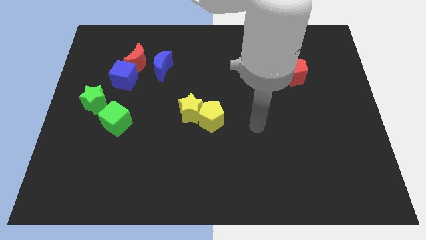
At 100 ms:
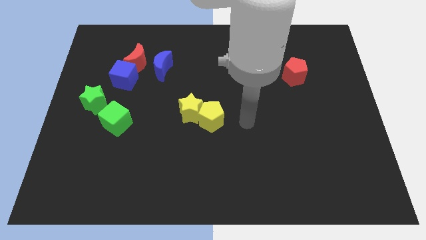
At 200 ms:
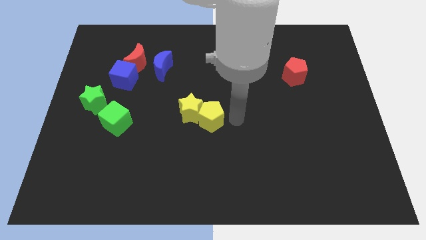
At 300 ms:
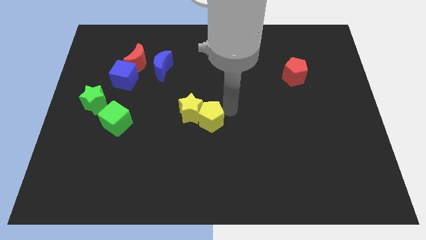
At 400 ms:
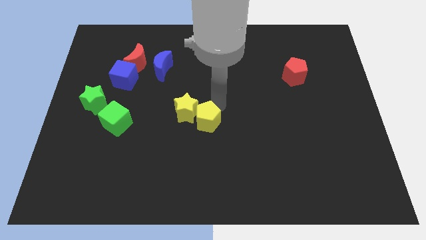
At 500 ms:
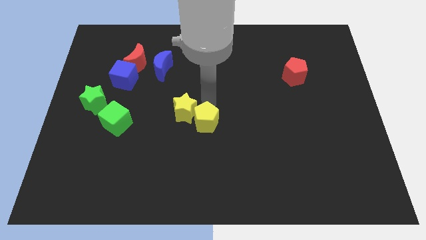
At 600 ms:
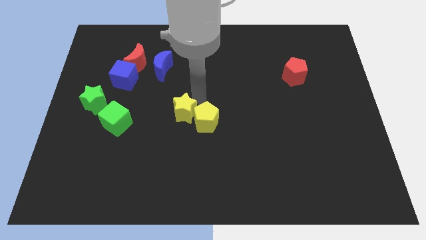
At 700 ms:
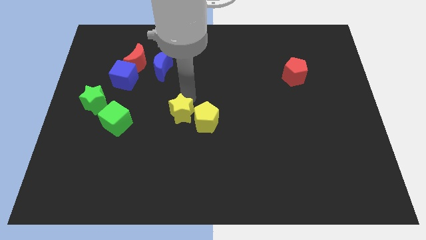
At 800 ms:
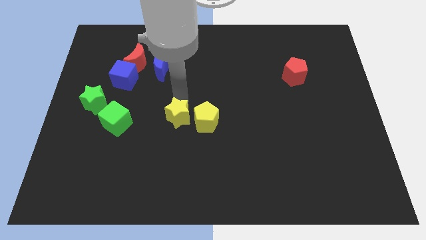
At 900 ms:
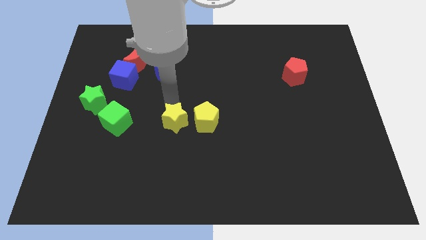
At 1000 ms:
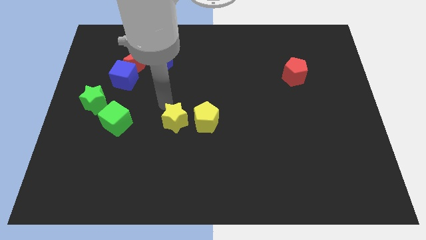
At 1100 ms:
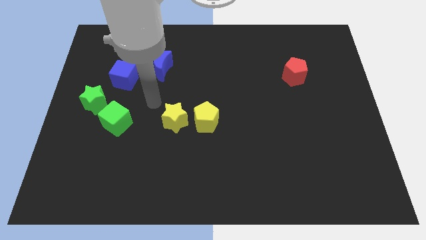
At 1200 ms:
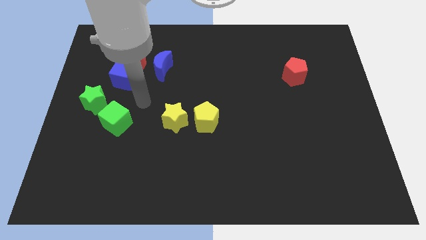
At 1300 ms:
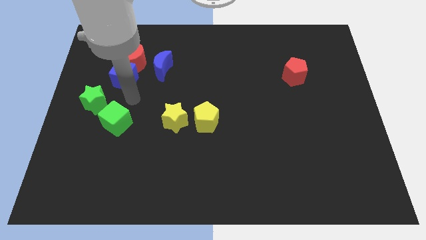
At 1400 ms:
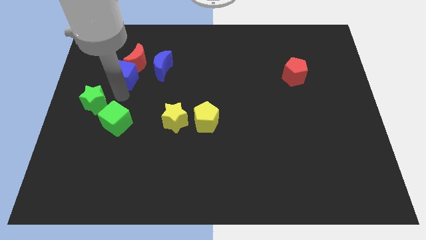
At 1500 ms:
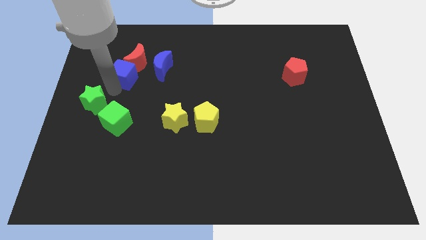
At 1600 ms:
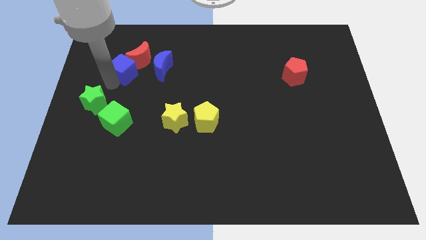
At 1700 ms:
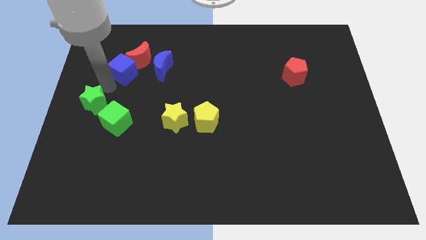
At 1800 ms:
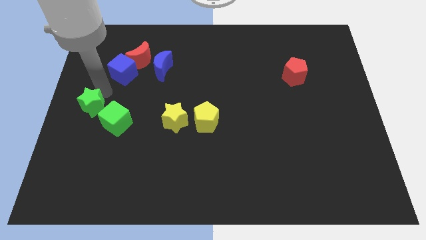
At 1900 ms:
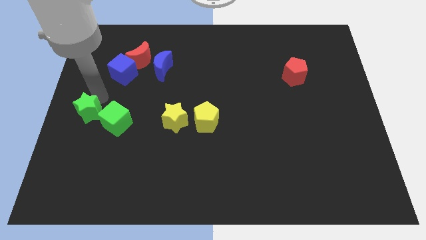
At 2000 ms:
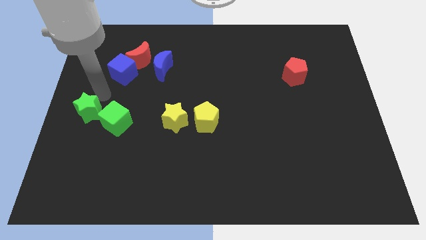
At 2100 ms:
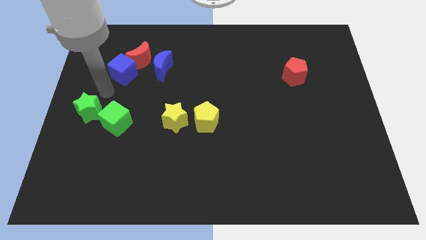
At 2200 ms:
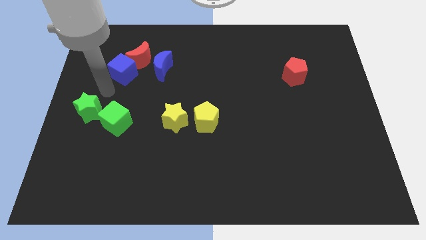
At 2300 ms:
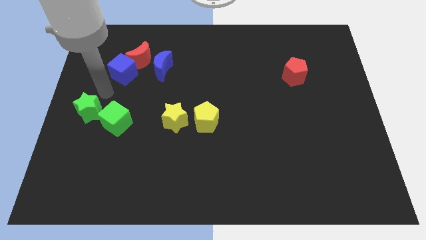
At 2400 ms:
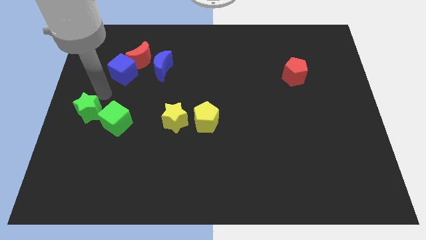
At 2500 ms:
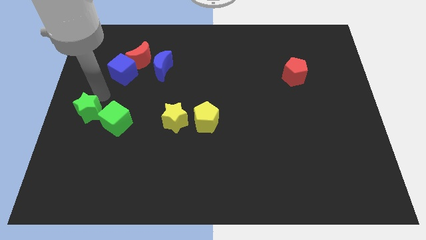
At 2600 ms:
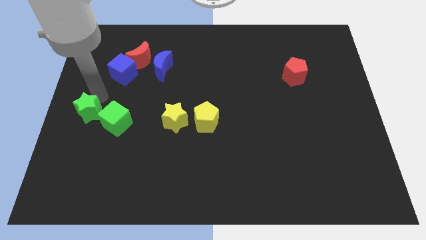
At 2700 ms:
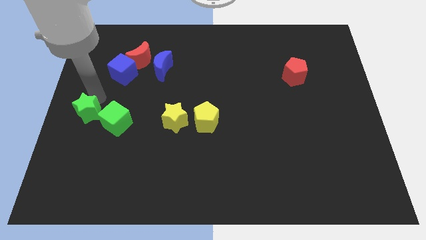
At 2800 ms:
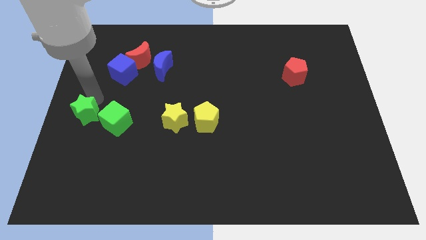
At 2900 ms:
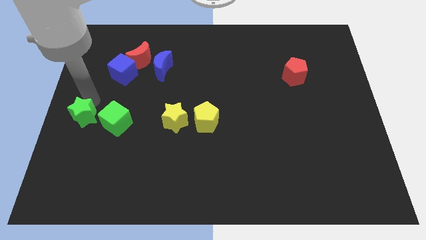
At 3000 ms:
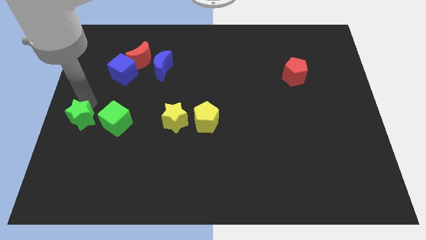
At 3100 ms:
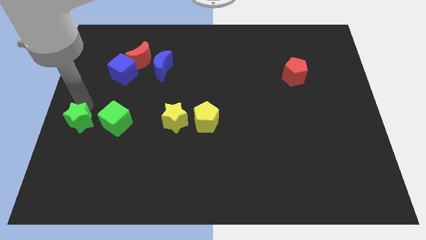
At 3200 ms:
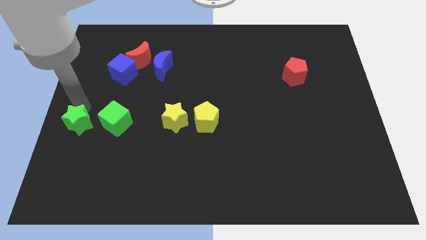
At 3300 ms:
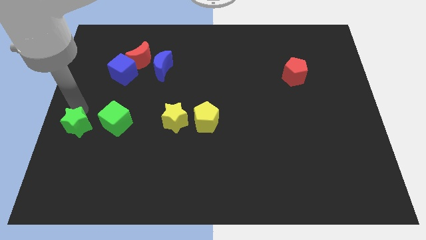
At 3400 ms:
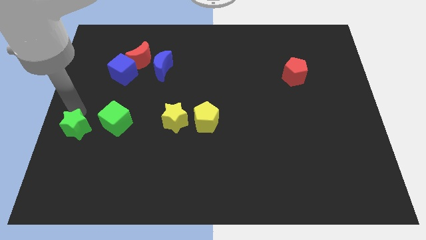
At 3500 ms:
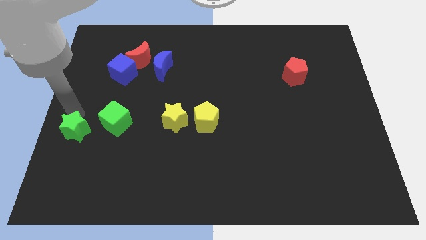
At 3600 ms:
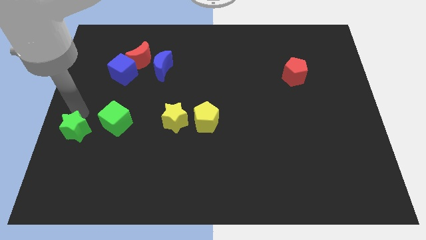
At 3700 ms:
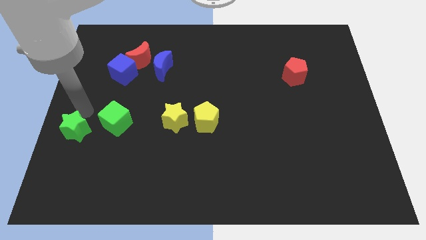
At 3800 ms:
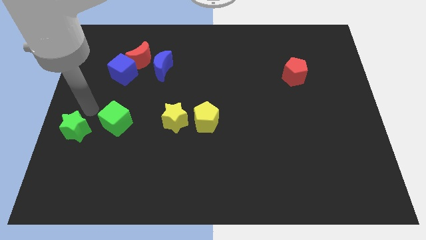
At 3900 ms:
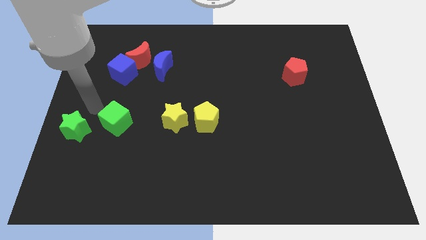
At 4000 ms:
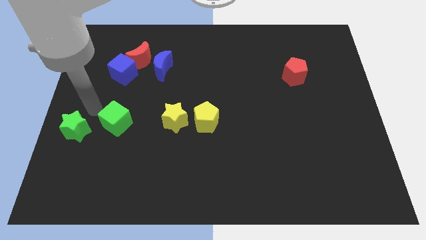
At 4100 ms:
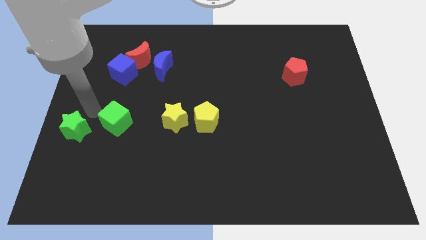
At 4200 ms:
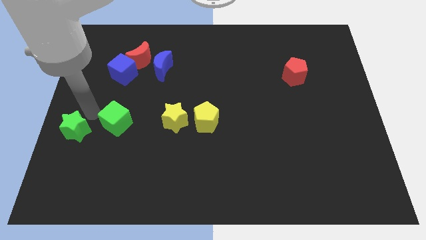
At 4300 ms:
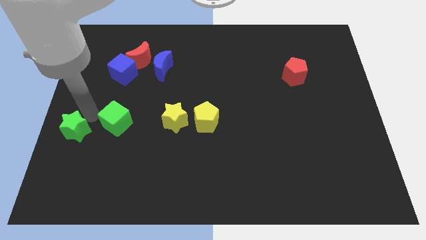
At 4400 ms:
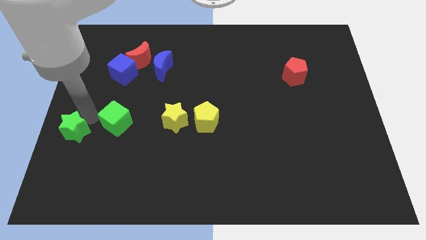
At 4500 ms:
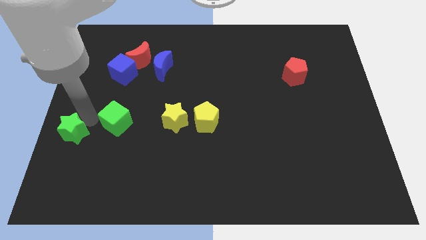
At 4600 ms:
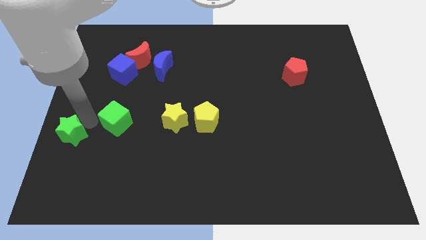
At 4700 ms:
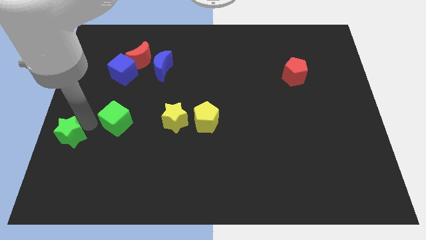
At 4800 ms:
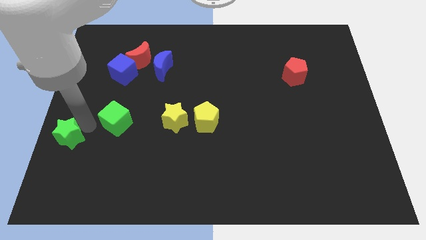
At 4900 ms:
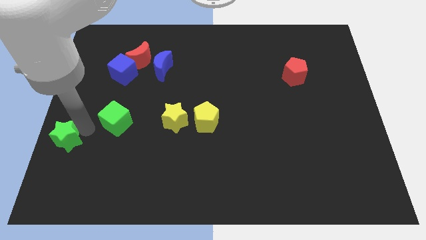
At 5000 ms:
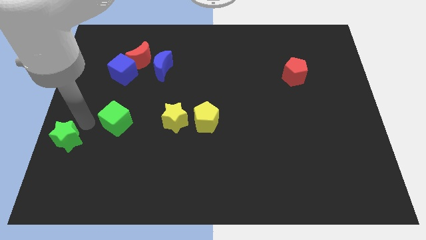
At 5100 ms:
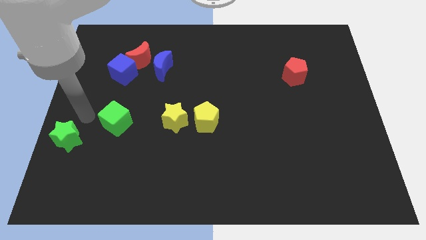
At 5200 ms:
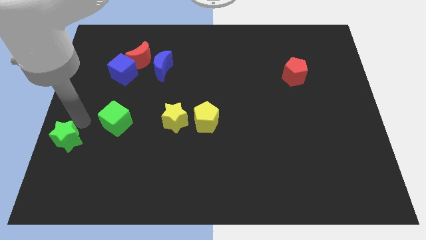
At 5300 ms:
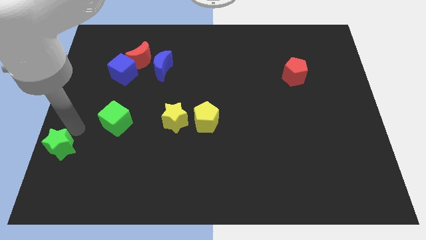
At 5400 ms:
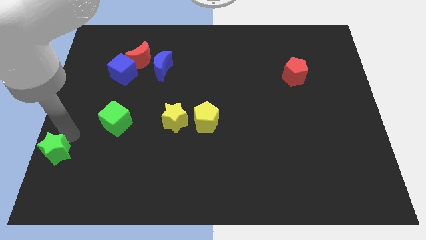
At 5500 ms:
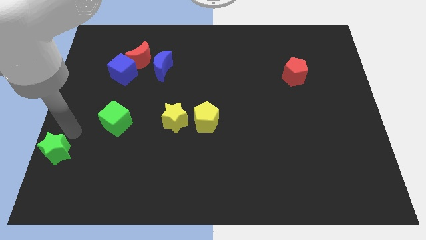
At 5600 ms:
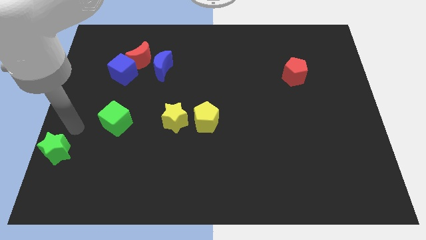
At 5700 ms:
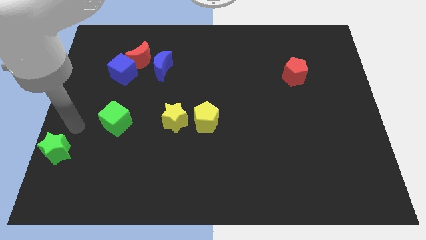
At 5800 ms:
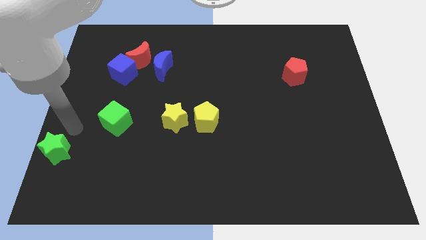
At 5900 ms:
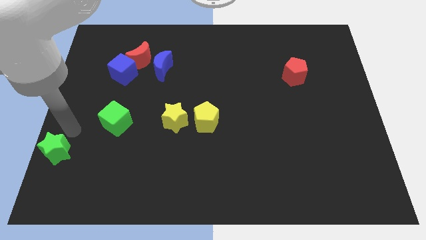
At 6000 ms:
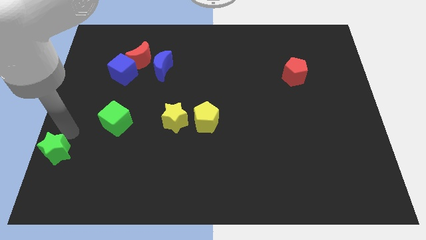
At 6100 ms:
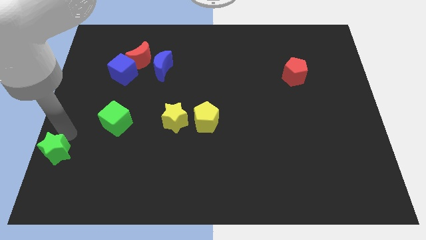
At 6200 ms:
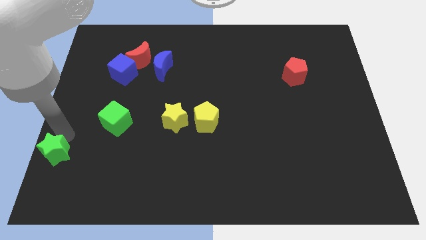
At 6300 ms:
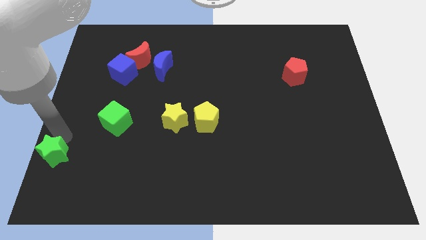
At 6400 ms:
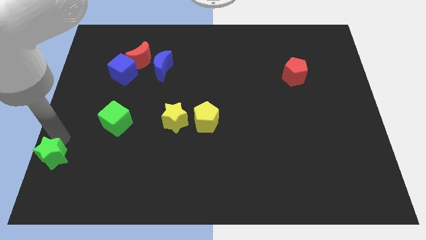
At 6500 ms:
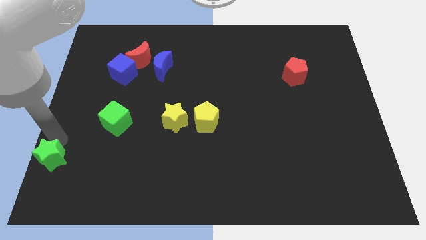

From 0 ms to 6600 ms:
put the green star to the bottom left of the board
